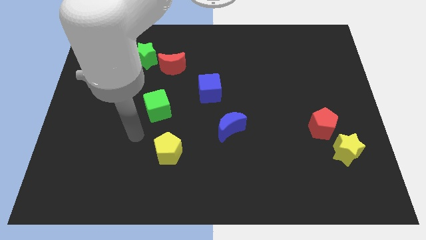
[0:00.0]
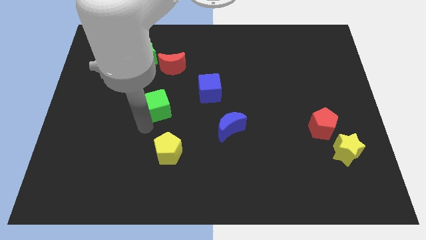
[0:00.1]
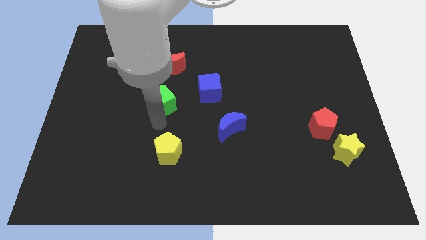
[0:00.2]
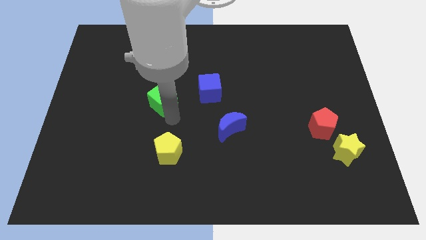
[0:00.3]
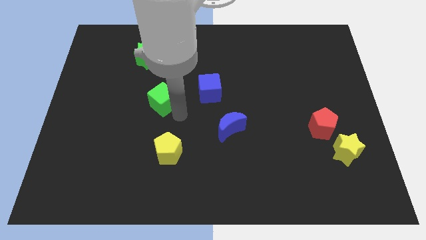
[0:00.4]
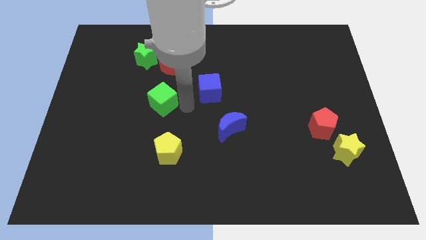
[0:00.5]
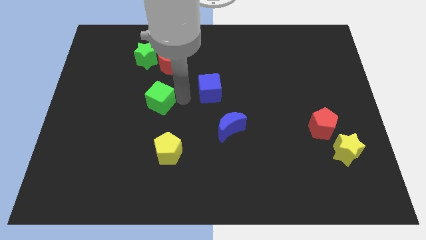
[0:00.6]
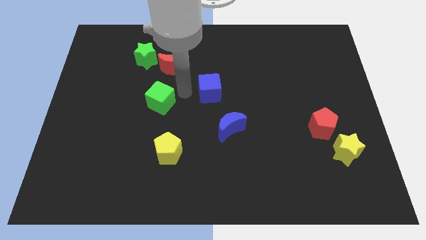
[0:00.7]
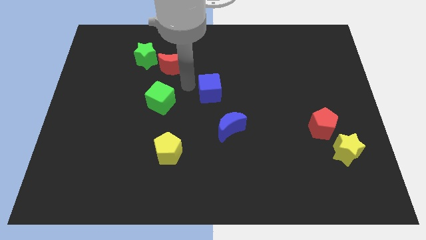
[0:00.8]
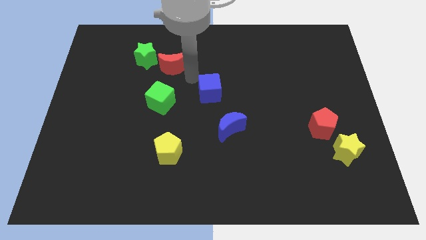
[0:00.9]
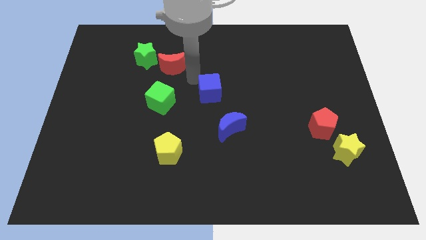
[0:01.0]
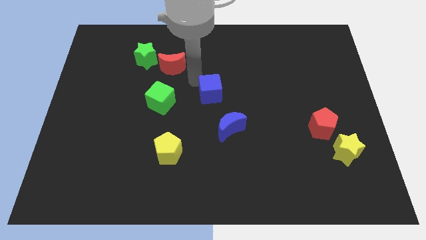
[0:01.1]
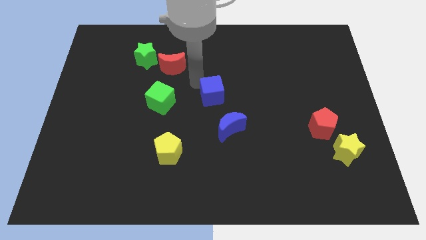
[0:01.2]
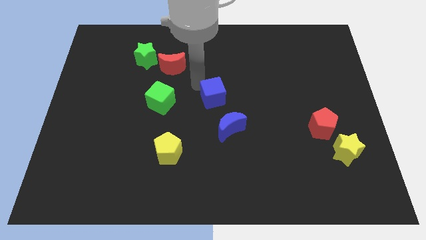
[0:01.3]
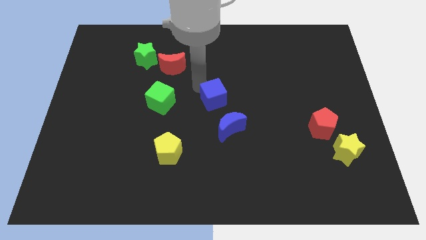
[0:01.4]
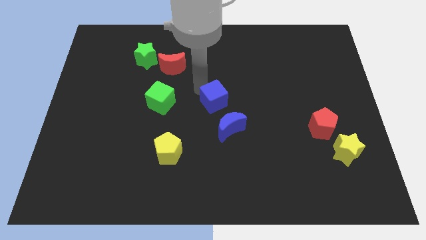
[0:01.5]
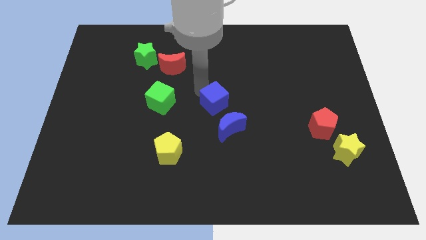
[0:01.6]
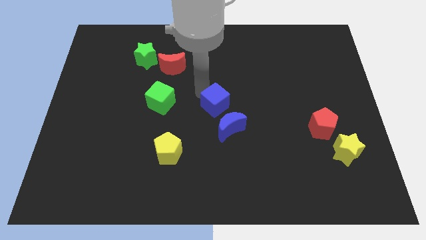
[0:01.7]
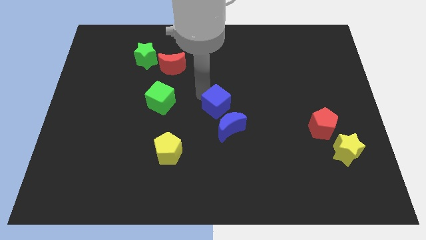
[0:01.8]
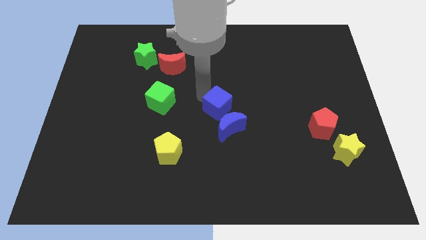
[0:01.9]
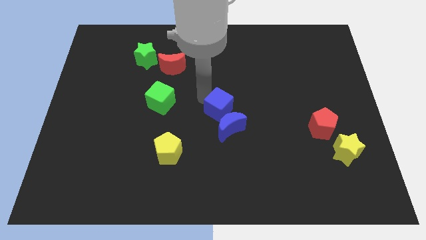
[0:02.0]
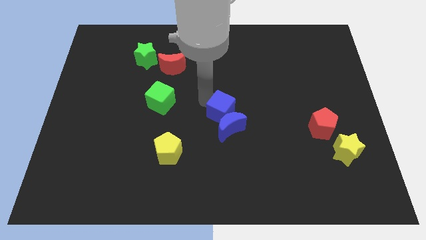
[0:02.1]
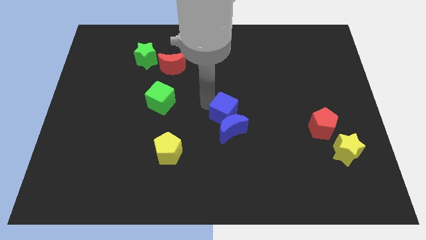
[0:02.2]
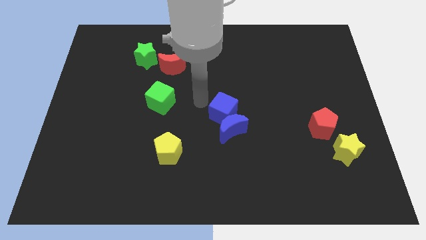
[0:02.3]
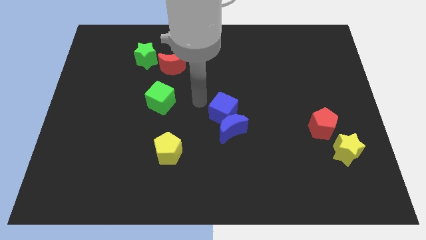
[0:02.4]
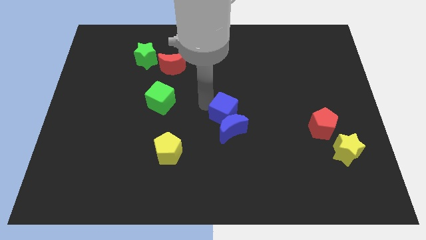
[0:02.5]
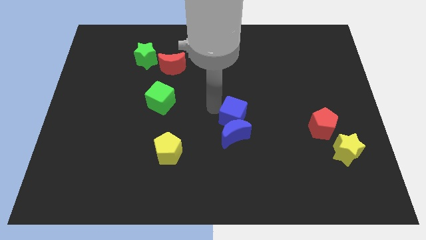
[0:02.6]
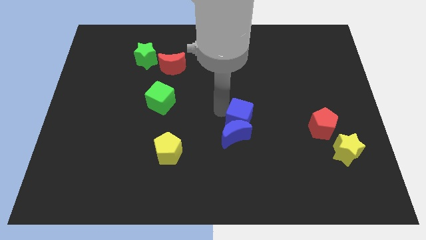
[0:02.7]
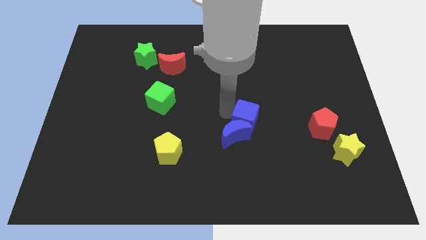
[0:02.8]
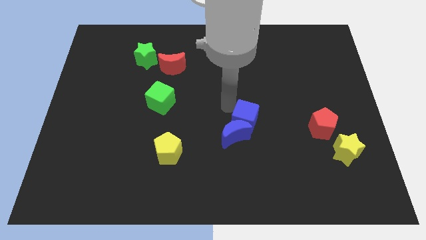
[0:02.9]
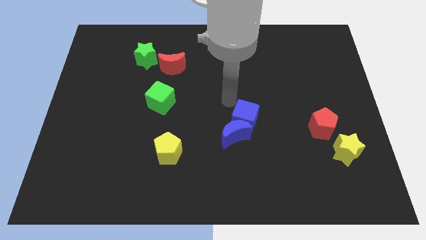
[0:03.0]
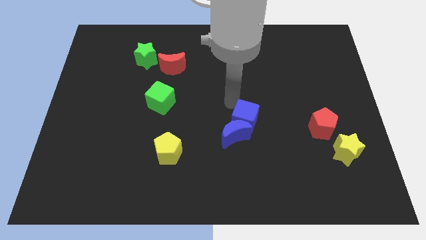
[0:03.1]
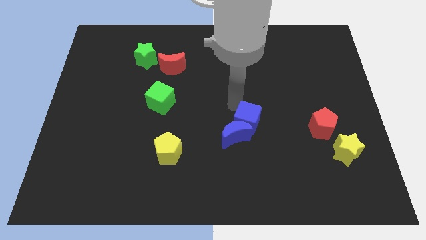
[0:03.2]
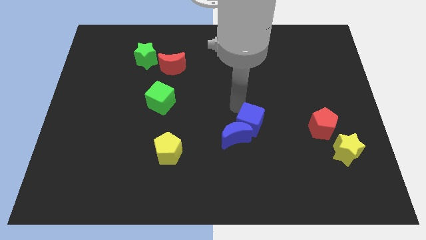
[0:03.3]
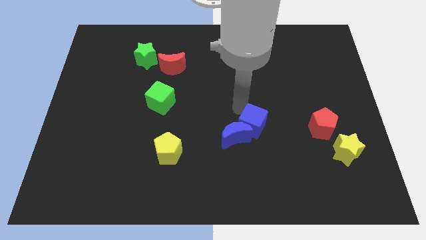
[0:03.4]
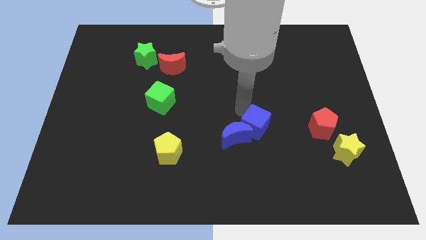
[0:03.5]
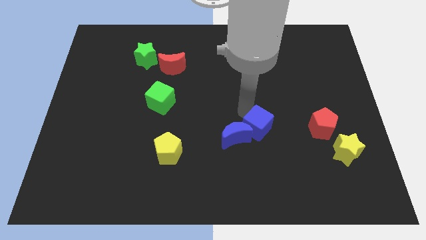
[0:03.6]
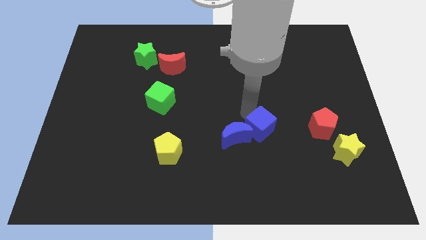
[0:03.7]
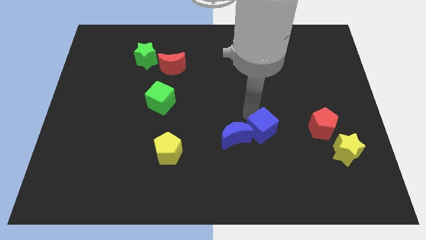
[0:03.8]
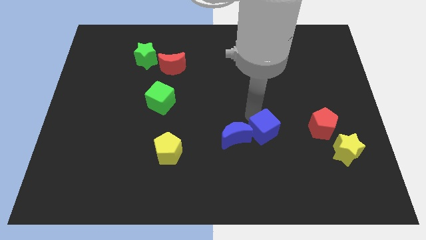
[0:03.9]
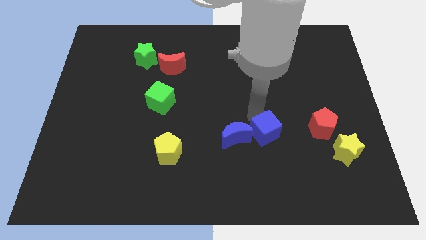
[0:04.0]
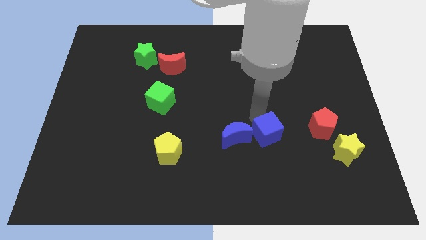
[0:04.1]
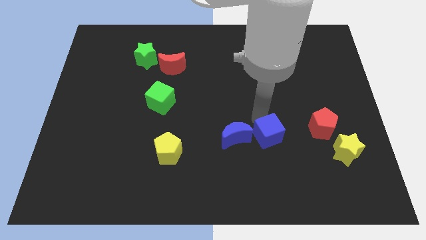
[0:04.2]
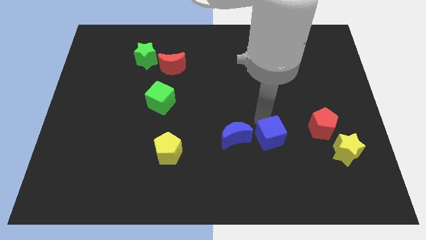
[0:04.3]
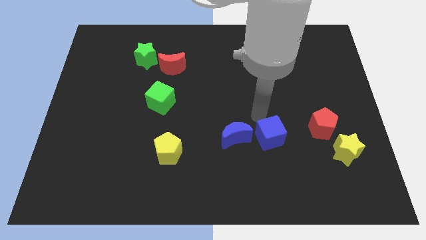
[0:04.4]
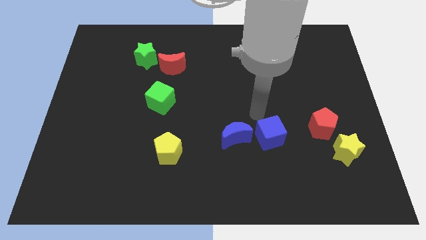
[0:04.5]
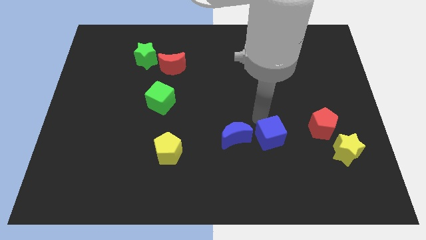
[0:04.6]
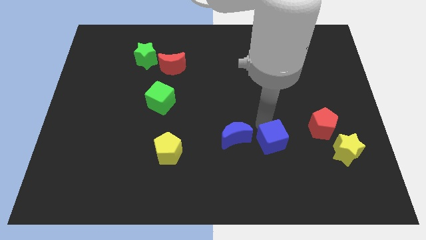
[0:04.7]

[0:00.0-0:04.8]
move the blue cube down and then to the right

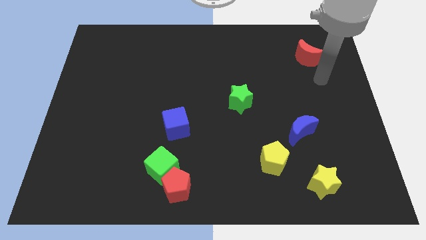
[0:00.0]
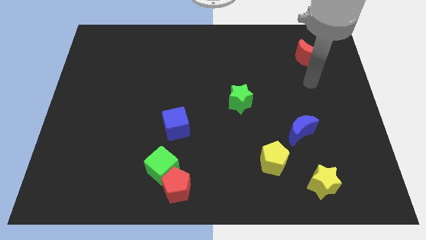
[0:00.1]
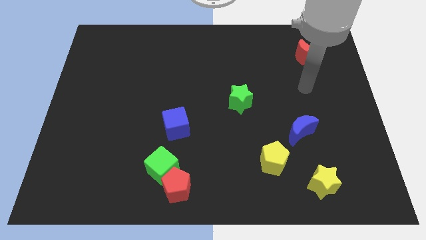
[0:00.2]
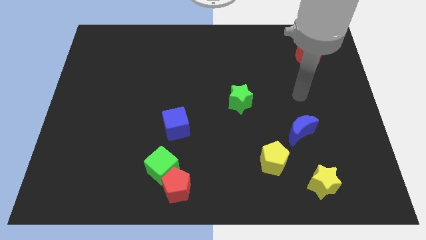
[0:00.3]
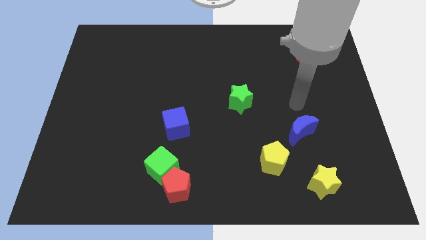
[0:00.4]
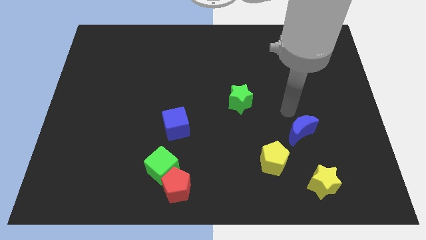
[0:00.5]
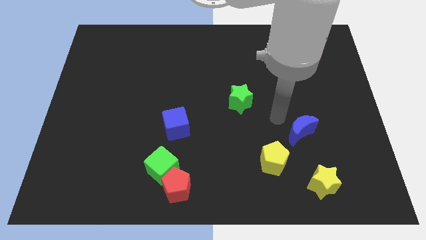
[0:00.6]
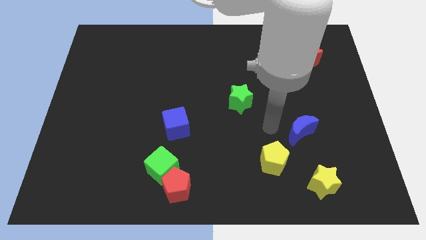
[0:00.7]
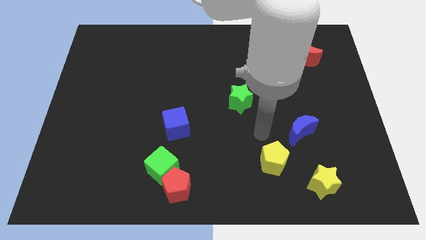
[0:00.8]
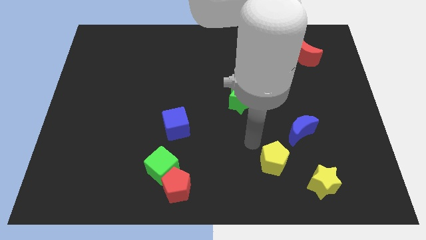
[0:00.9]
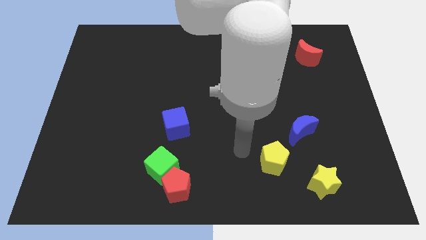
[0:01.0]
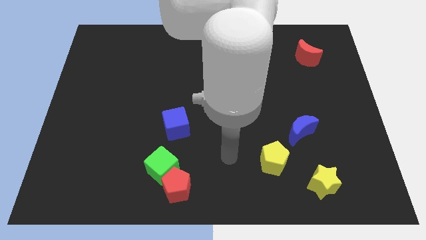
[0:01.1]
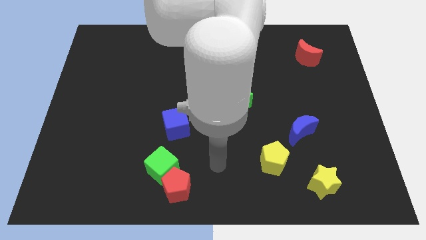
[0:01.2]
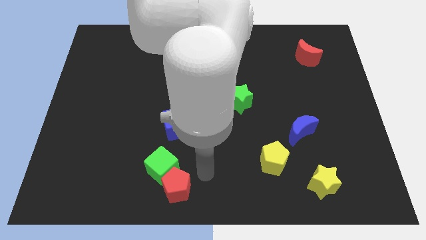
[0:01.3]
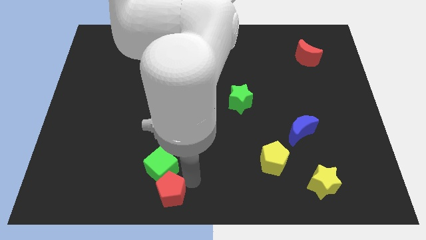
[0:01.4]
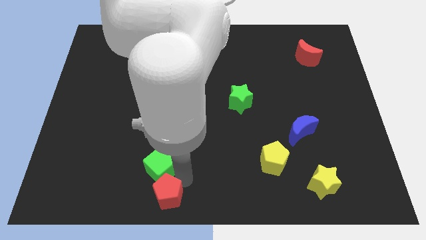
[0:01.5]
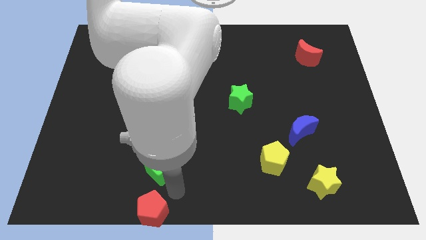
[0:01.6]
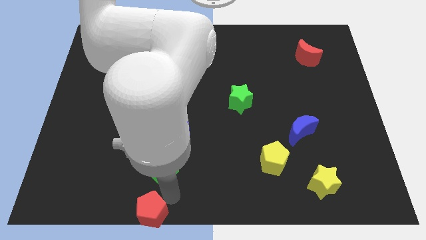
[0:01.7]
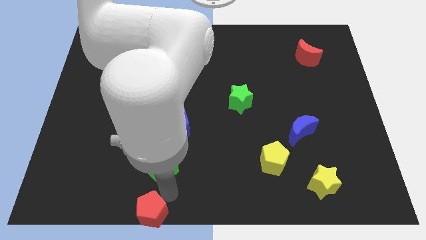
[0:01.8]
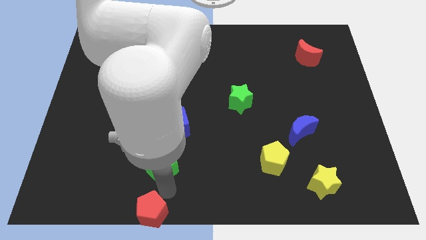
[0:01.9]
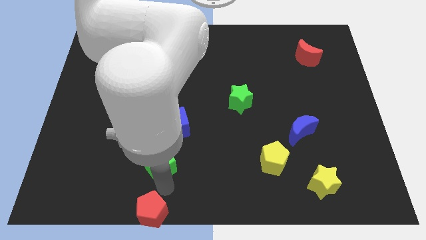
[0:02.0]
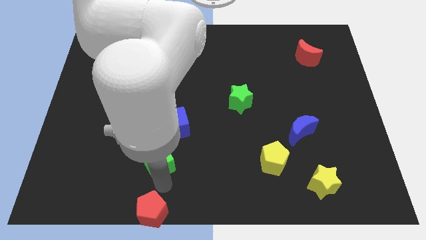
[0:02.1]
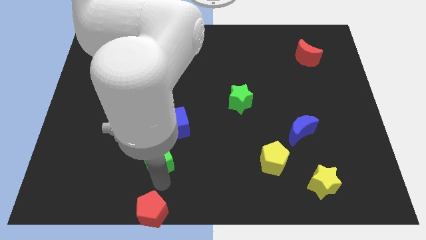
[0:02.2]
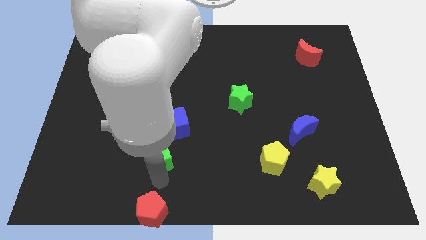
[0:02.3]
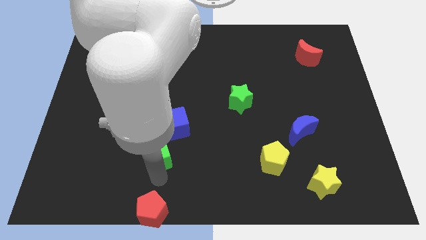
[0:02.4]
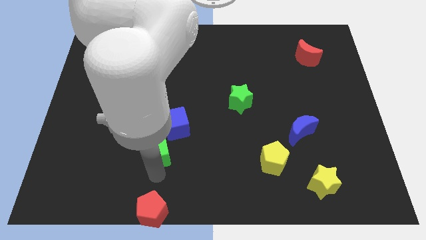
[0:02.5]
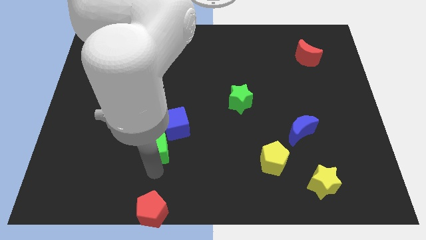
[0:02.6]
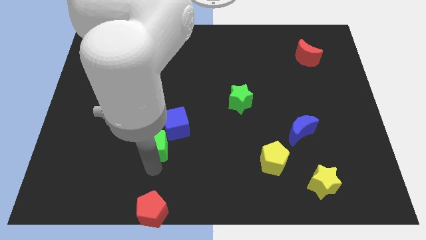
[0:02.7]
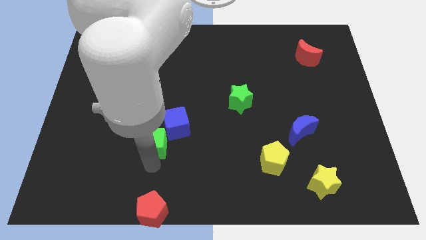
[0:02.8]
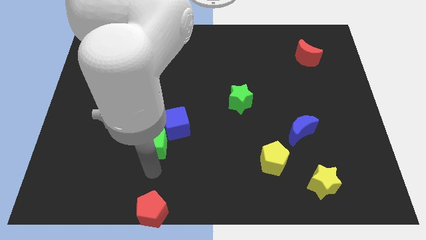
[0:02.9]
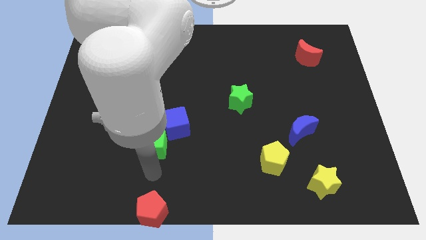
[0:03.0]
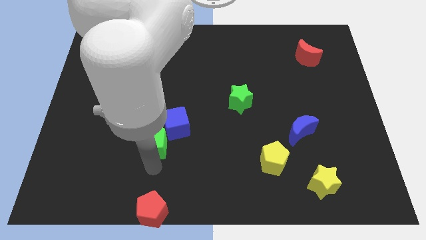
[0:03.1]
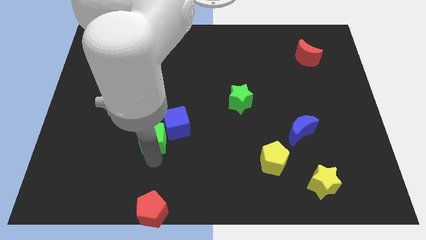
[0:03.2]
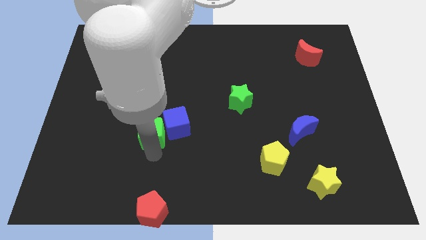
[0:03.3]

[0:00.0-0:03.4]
slightly push the green cube upwards
